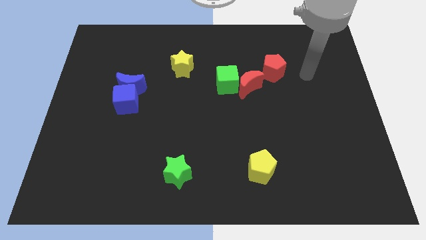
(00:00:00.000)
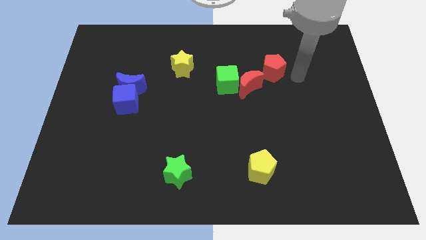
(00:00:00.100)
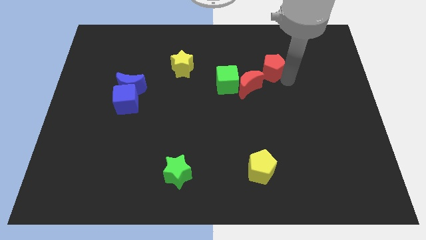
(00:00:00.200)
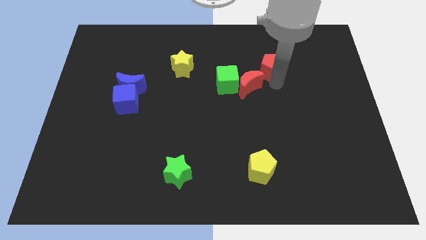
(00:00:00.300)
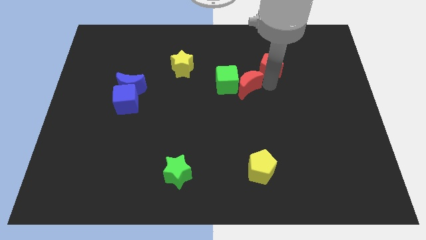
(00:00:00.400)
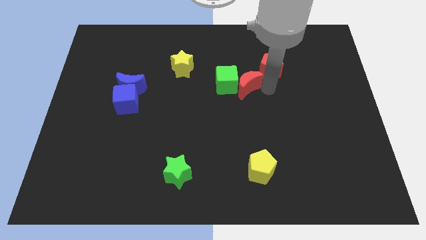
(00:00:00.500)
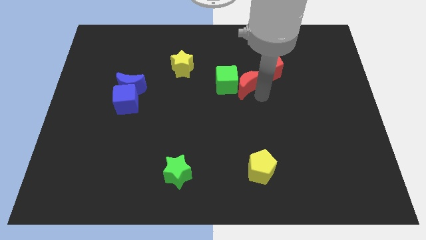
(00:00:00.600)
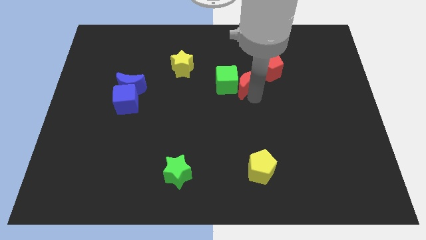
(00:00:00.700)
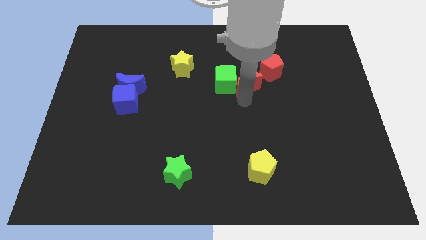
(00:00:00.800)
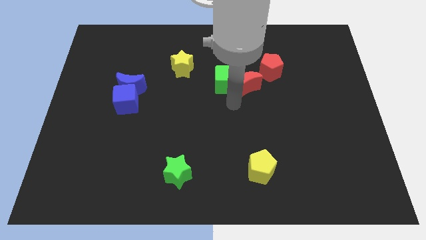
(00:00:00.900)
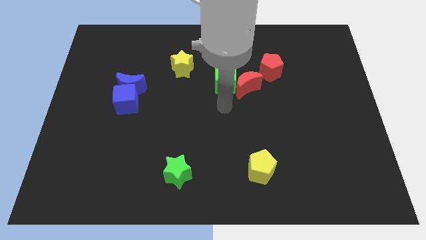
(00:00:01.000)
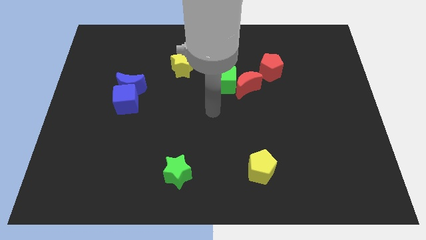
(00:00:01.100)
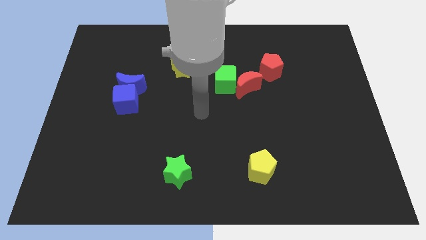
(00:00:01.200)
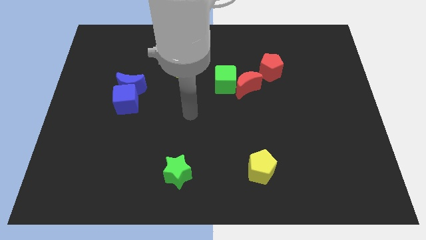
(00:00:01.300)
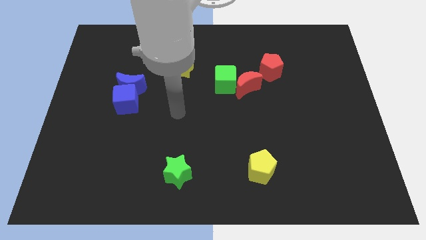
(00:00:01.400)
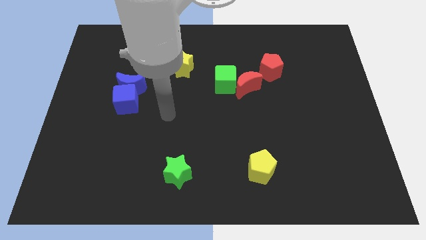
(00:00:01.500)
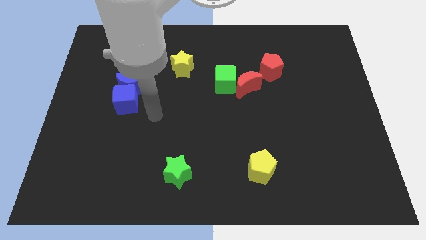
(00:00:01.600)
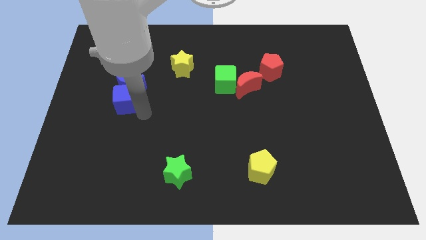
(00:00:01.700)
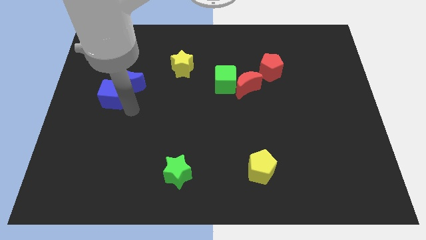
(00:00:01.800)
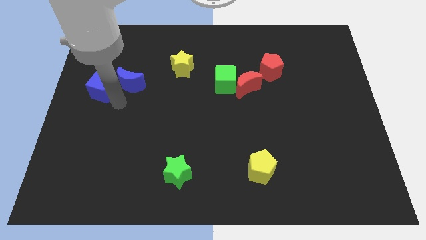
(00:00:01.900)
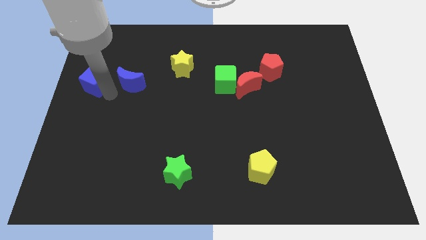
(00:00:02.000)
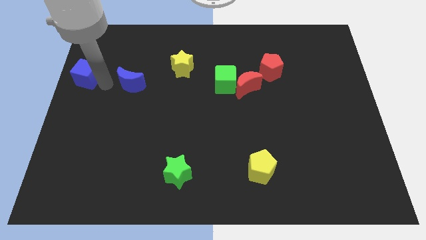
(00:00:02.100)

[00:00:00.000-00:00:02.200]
separate the blue moon from the blue cube

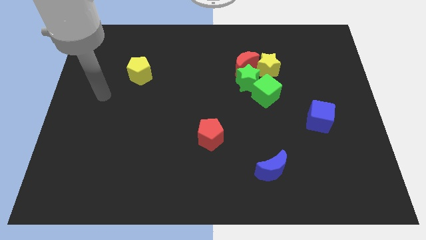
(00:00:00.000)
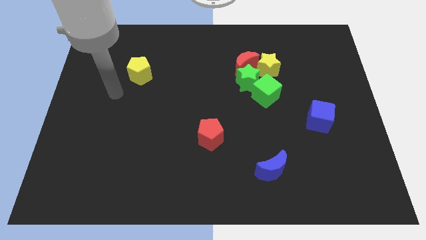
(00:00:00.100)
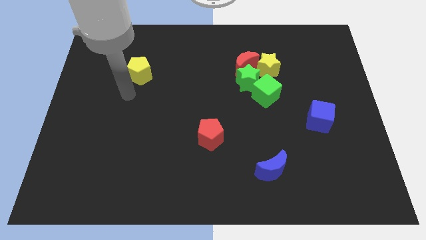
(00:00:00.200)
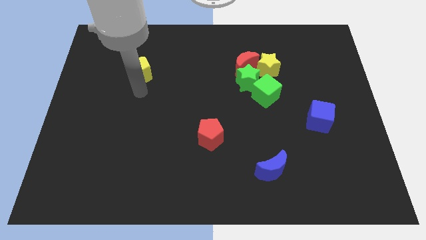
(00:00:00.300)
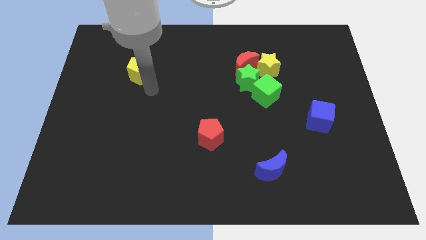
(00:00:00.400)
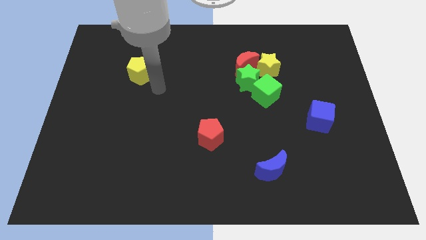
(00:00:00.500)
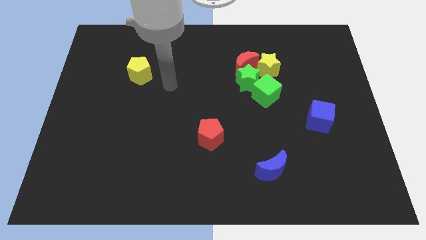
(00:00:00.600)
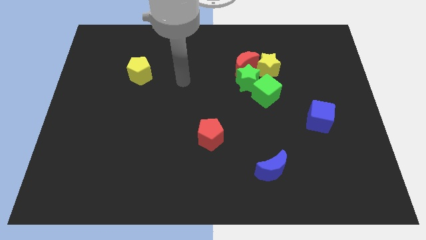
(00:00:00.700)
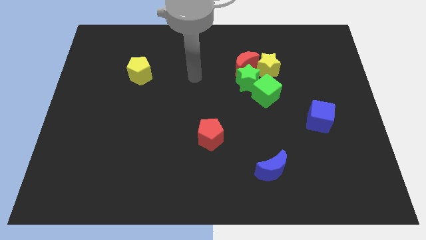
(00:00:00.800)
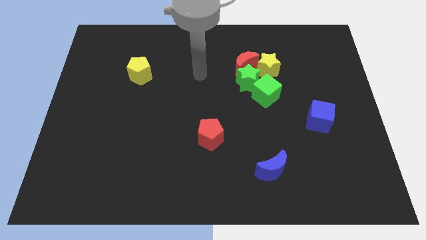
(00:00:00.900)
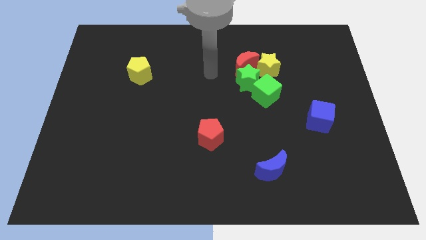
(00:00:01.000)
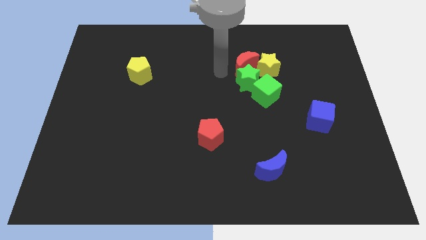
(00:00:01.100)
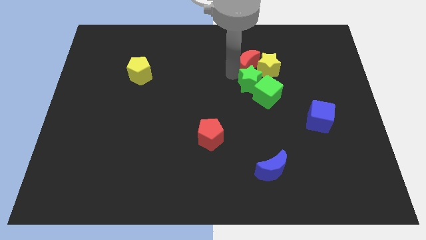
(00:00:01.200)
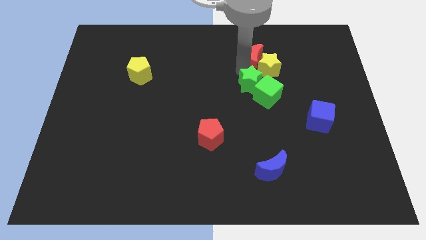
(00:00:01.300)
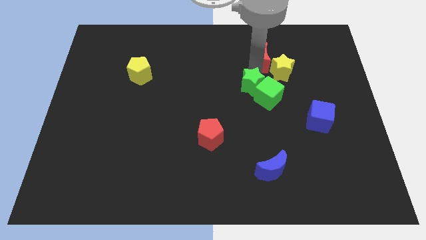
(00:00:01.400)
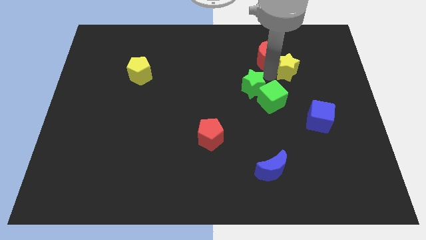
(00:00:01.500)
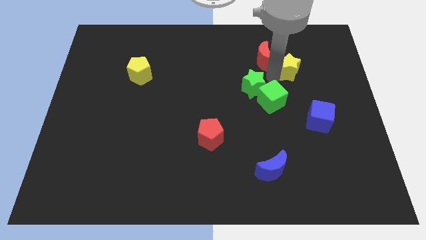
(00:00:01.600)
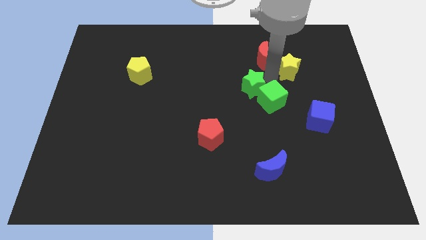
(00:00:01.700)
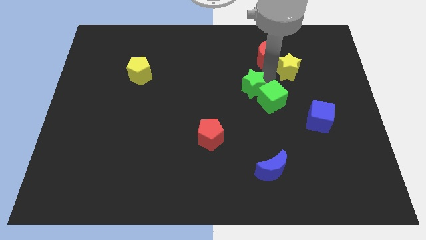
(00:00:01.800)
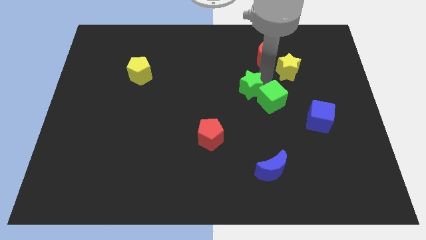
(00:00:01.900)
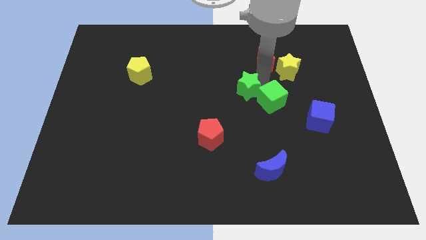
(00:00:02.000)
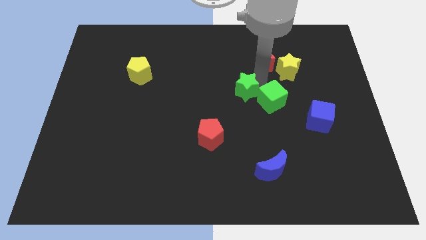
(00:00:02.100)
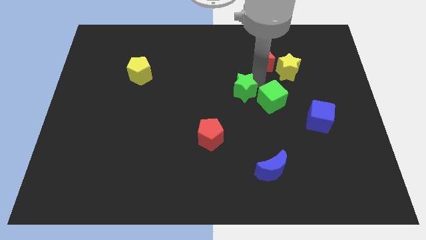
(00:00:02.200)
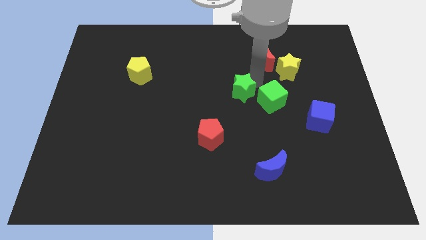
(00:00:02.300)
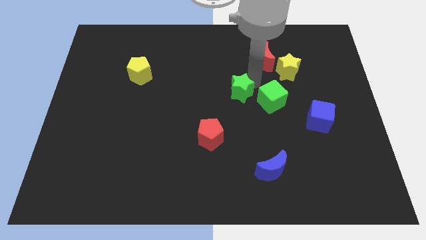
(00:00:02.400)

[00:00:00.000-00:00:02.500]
pull the green star apart from the group

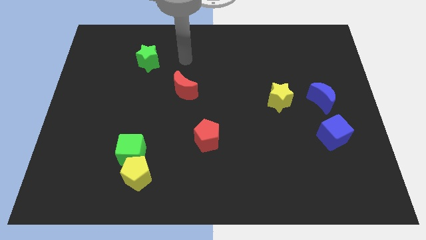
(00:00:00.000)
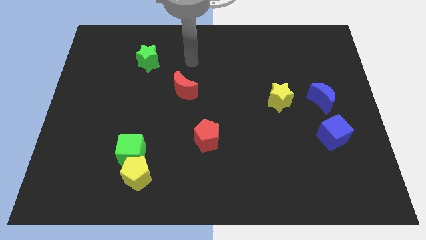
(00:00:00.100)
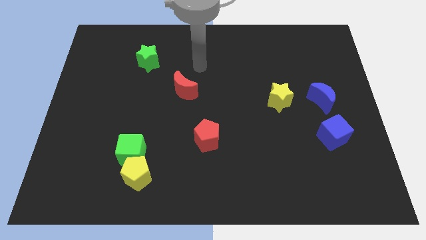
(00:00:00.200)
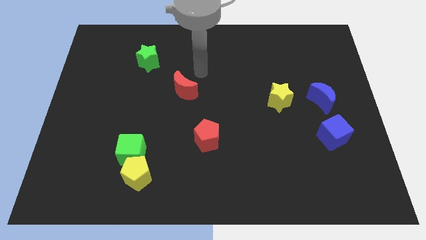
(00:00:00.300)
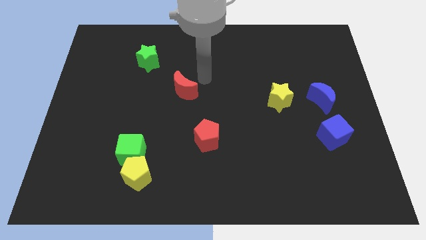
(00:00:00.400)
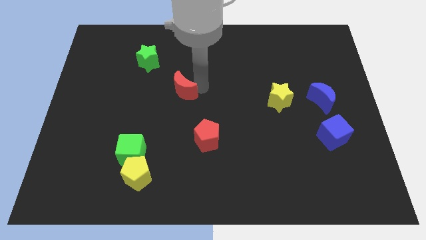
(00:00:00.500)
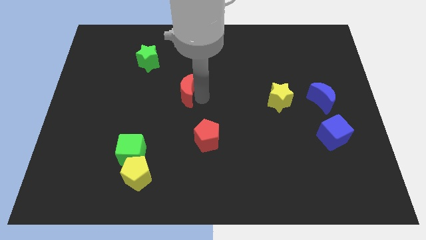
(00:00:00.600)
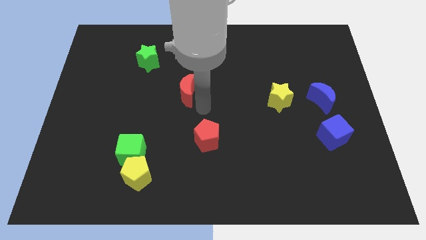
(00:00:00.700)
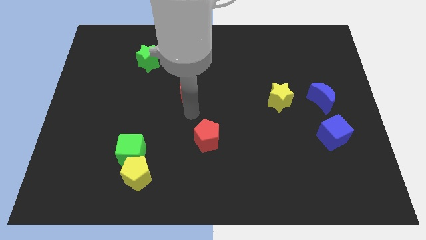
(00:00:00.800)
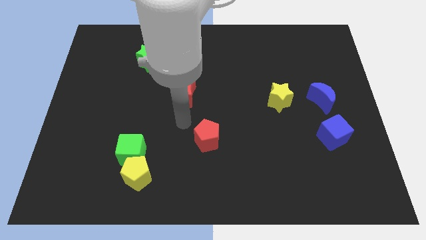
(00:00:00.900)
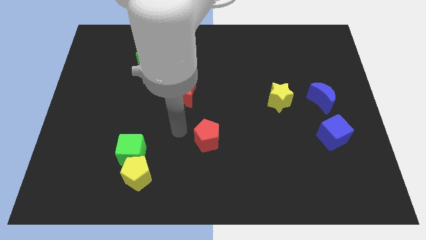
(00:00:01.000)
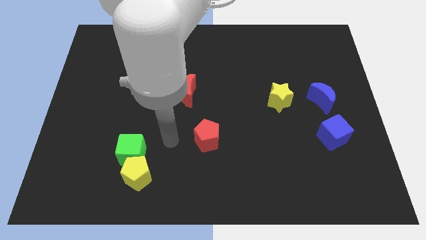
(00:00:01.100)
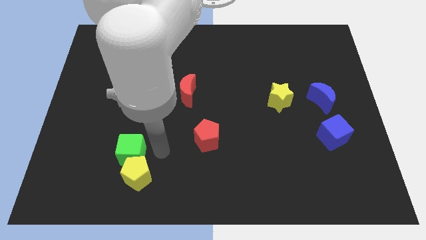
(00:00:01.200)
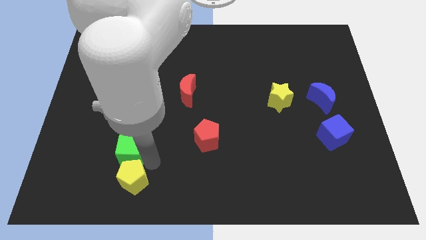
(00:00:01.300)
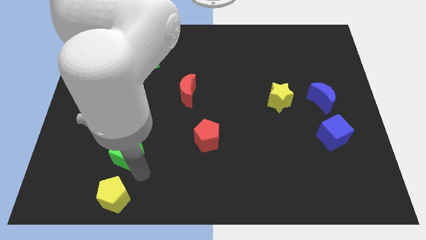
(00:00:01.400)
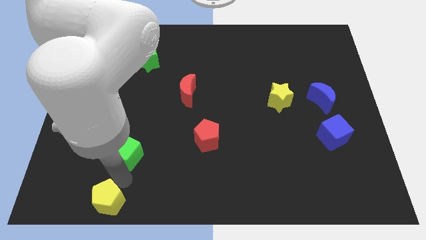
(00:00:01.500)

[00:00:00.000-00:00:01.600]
pull the green cube apart from the yellow pentagon

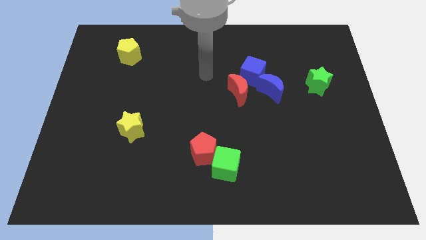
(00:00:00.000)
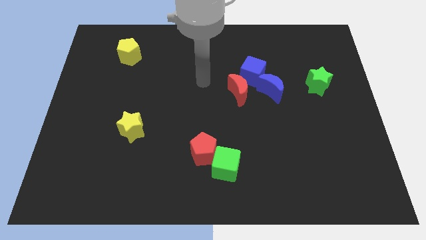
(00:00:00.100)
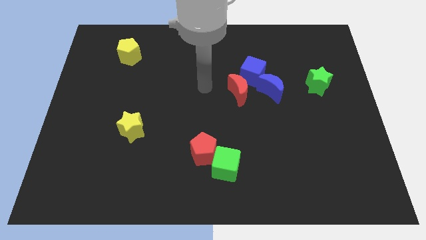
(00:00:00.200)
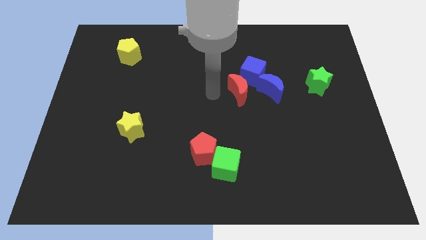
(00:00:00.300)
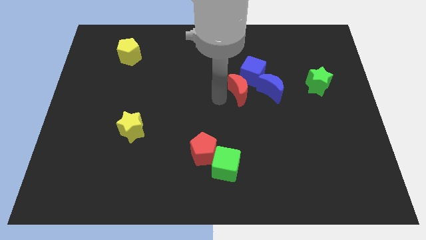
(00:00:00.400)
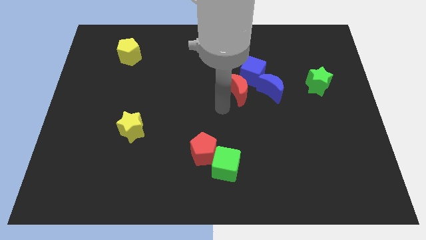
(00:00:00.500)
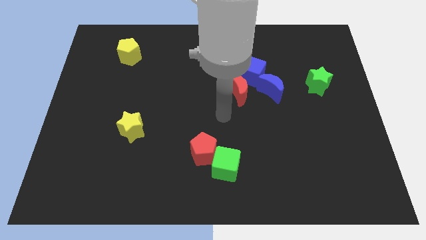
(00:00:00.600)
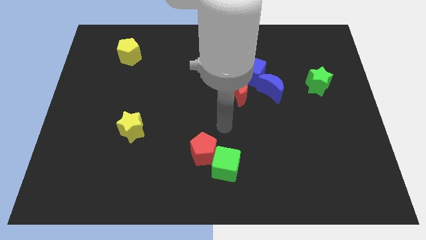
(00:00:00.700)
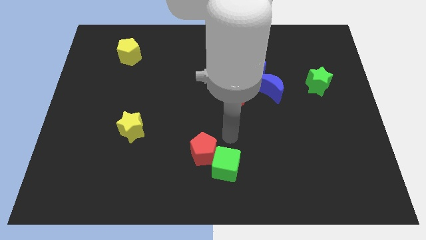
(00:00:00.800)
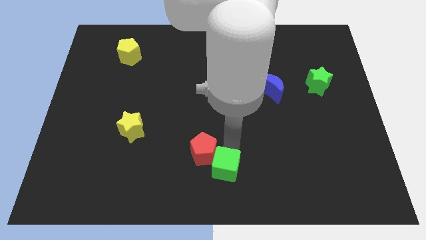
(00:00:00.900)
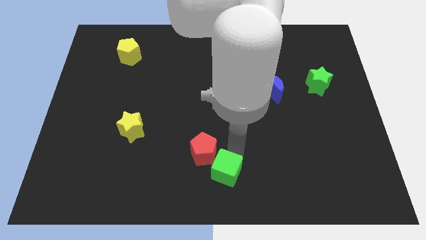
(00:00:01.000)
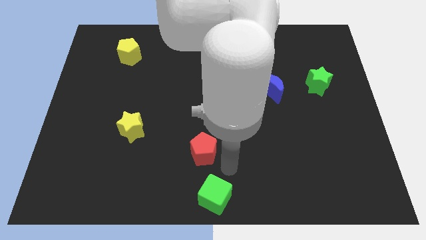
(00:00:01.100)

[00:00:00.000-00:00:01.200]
move the red pentagon away from the green cube

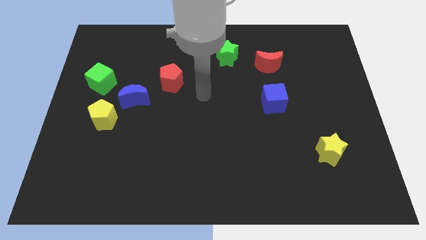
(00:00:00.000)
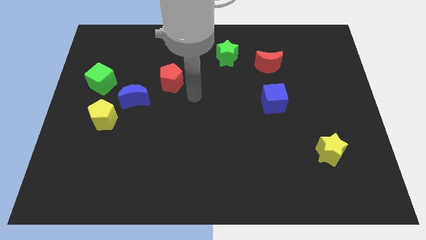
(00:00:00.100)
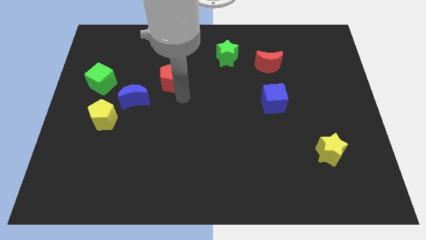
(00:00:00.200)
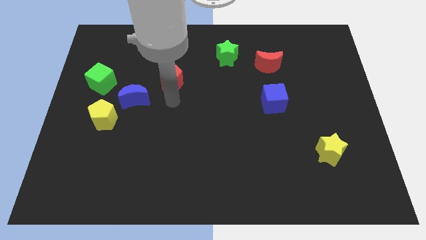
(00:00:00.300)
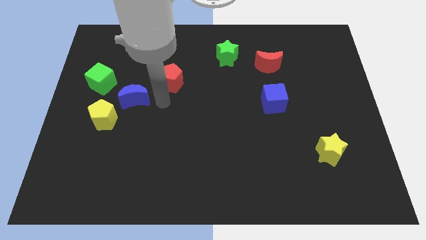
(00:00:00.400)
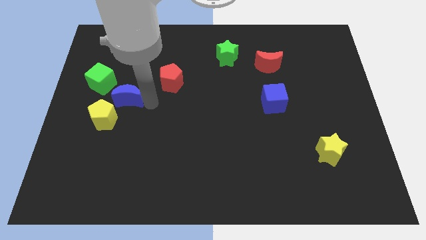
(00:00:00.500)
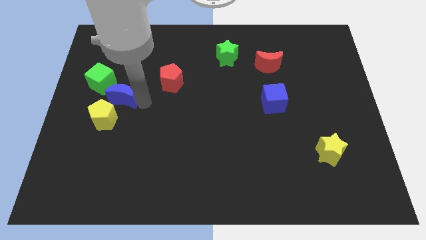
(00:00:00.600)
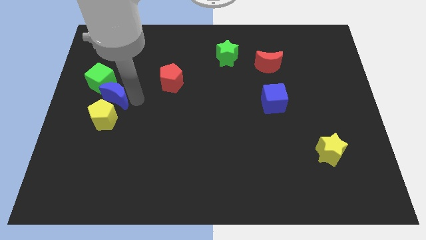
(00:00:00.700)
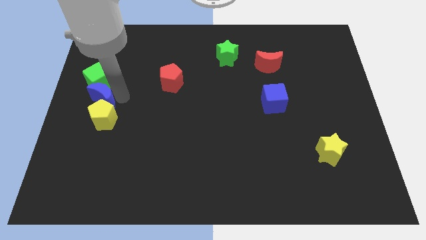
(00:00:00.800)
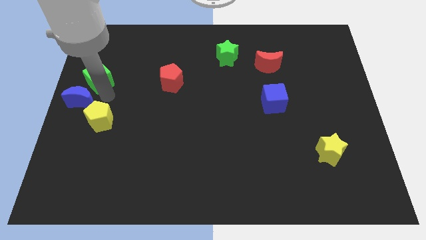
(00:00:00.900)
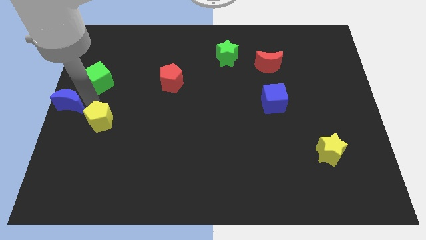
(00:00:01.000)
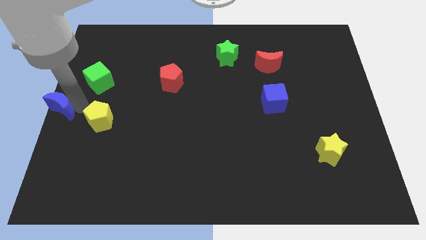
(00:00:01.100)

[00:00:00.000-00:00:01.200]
pull the yellow pentagon apart from the blue moon

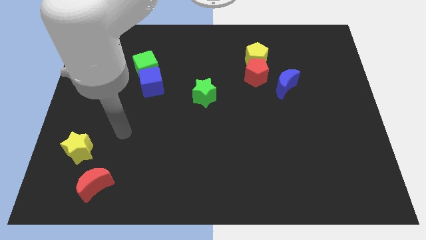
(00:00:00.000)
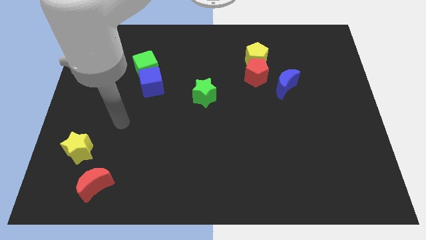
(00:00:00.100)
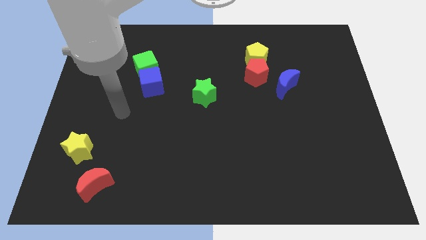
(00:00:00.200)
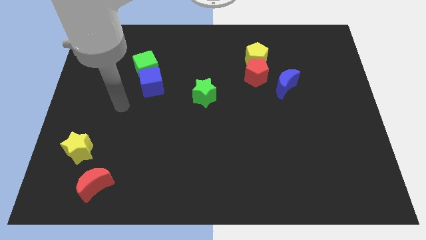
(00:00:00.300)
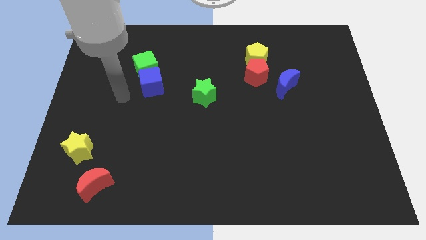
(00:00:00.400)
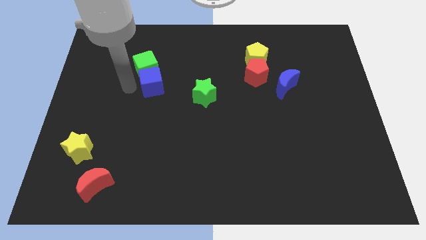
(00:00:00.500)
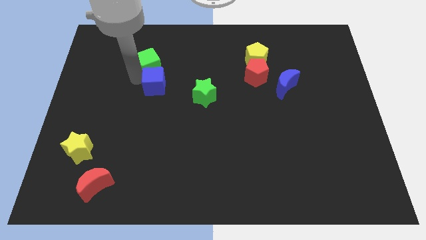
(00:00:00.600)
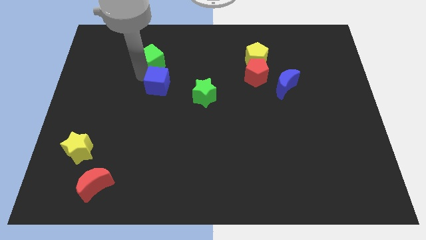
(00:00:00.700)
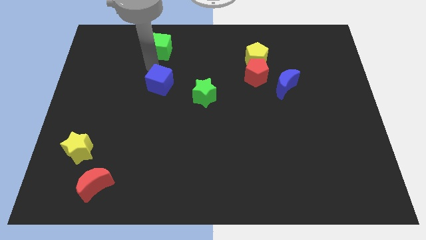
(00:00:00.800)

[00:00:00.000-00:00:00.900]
pull the blue cube apart from the green cube
